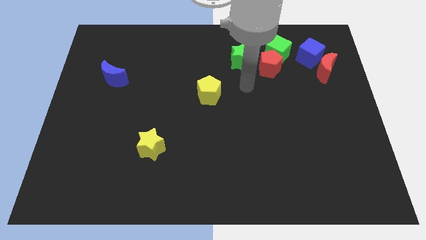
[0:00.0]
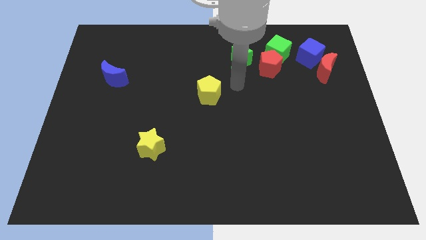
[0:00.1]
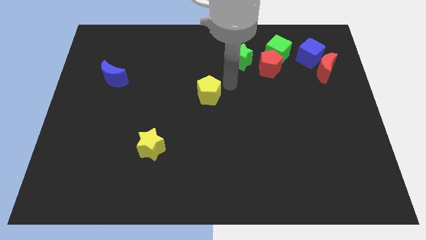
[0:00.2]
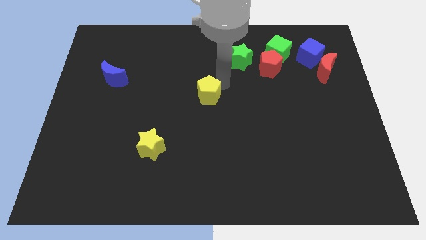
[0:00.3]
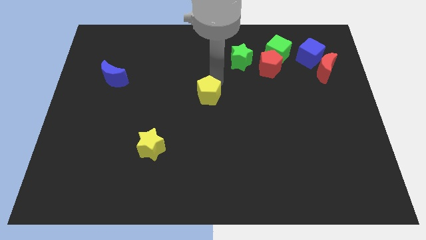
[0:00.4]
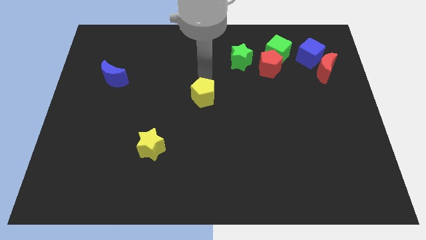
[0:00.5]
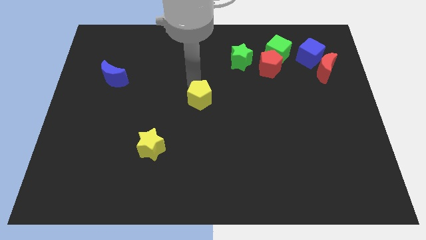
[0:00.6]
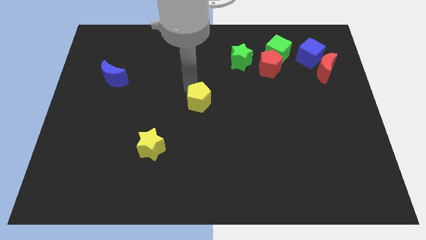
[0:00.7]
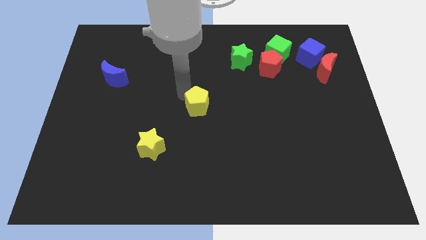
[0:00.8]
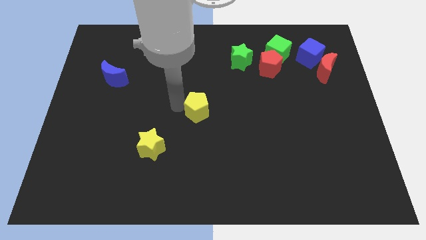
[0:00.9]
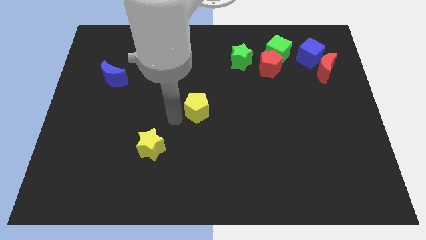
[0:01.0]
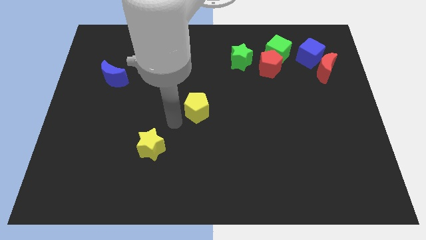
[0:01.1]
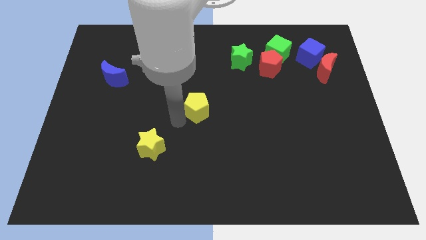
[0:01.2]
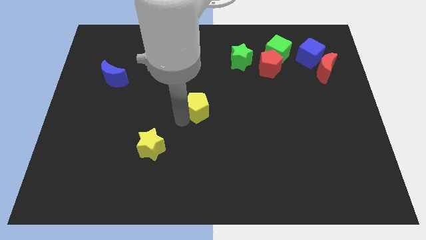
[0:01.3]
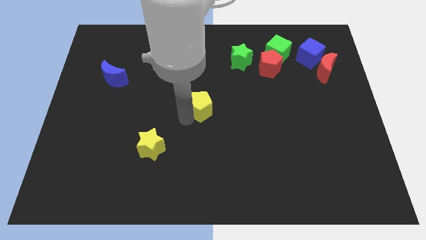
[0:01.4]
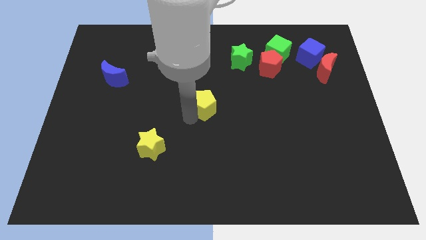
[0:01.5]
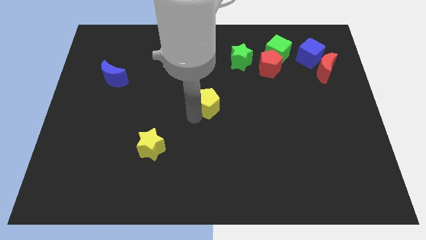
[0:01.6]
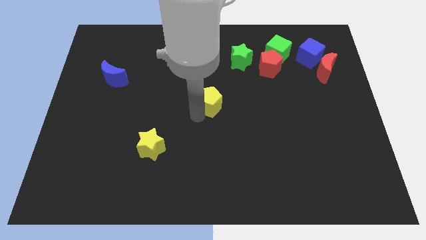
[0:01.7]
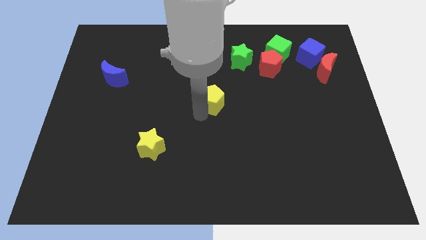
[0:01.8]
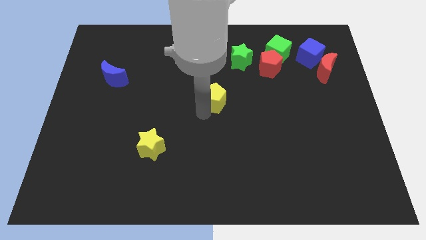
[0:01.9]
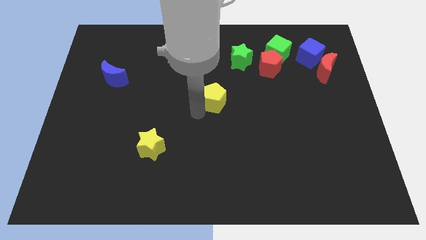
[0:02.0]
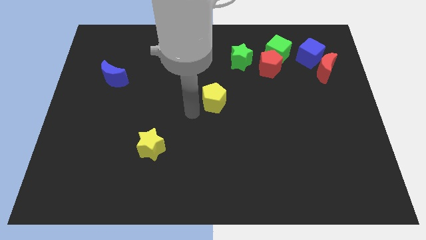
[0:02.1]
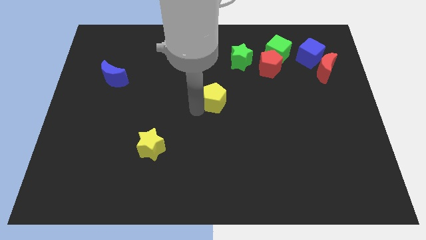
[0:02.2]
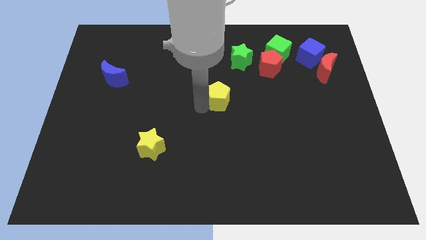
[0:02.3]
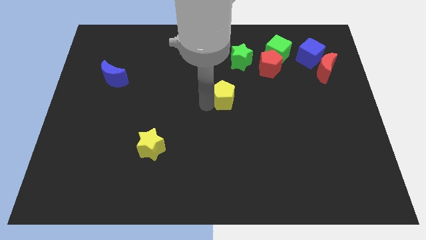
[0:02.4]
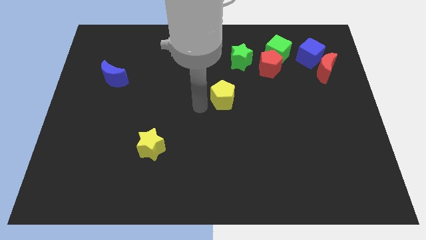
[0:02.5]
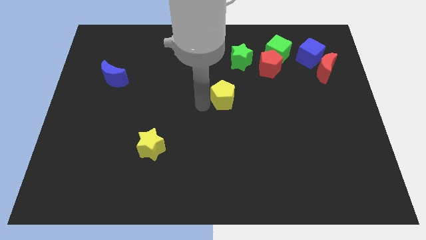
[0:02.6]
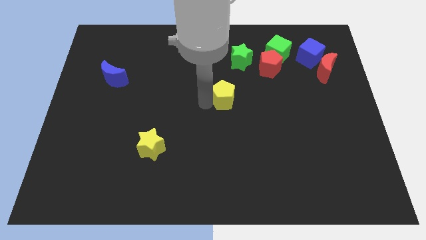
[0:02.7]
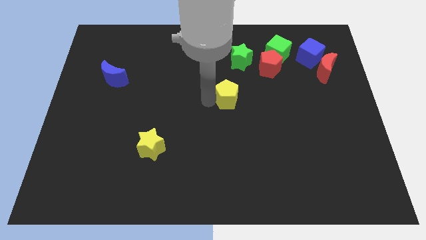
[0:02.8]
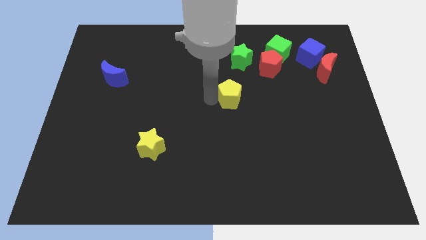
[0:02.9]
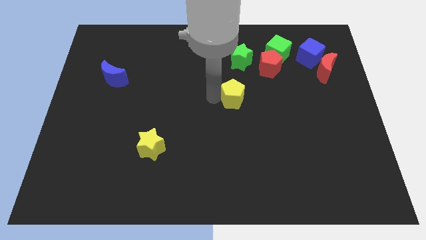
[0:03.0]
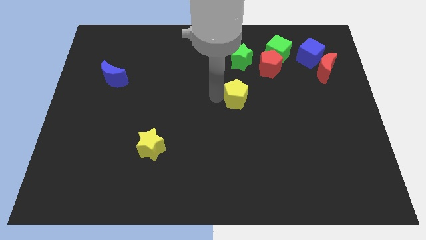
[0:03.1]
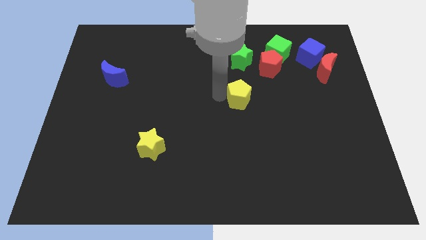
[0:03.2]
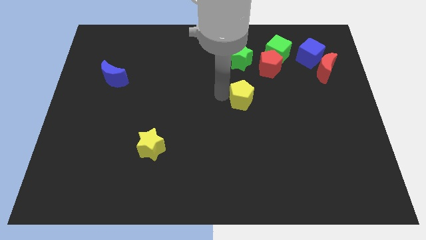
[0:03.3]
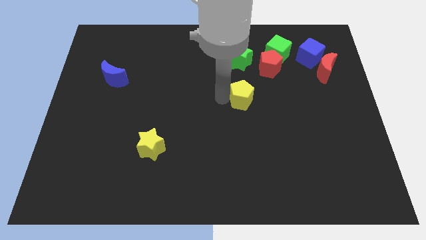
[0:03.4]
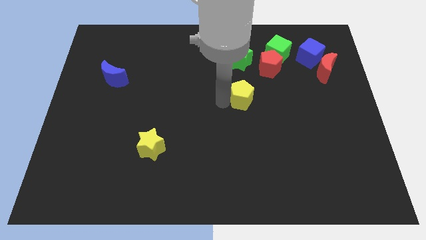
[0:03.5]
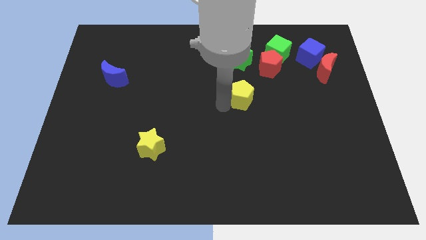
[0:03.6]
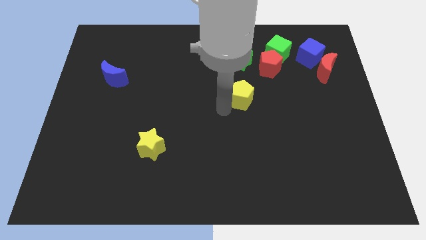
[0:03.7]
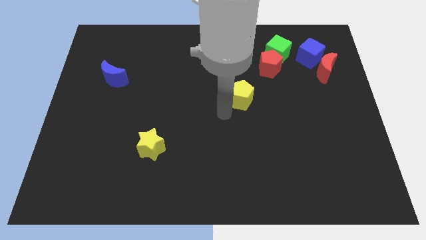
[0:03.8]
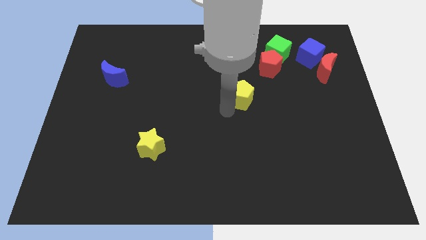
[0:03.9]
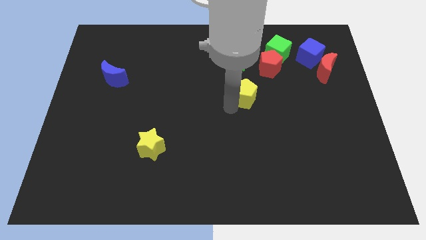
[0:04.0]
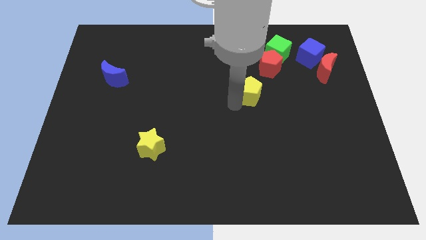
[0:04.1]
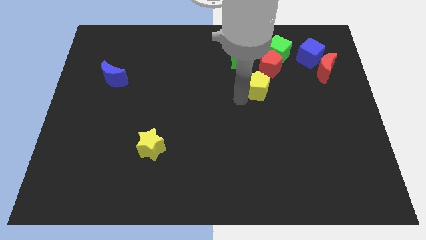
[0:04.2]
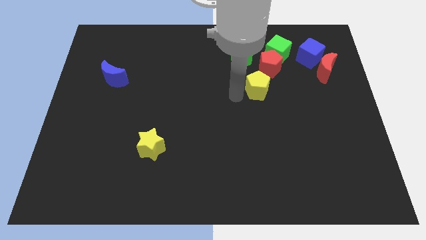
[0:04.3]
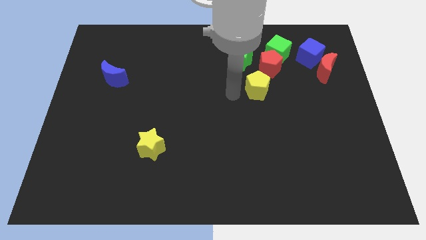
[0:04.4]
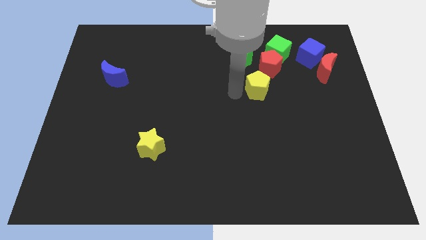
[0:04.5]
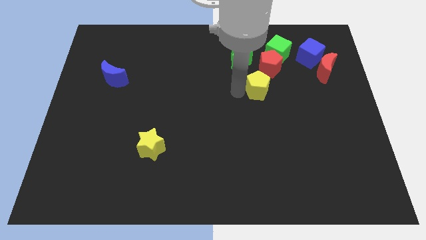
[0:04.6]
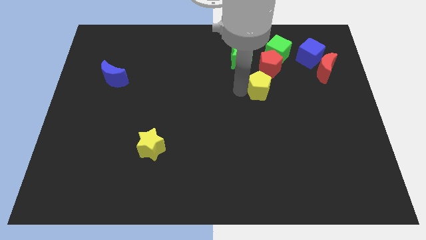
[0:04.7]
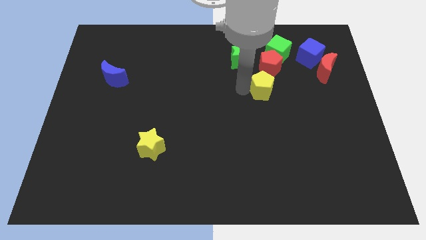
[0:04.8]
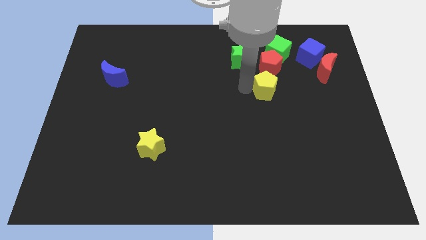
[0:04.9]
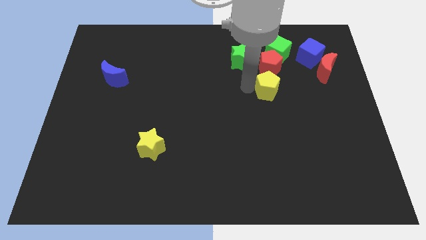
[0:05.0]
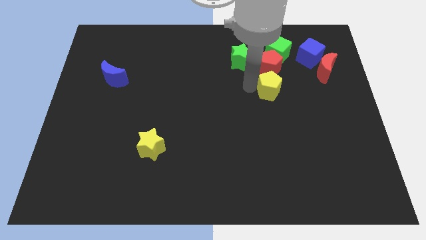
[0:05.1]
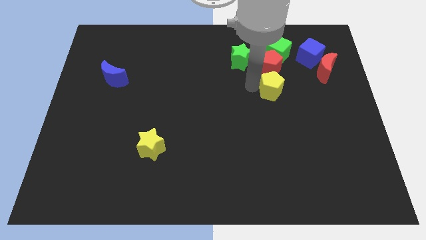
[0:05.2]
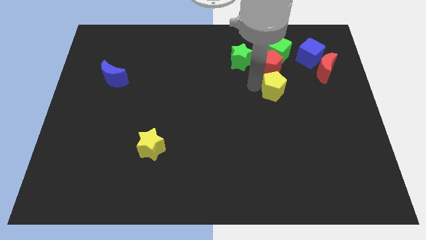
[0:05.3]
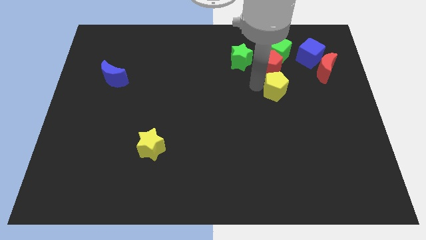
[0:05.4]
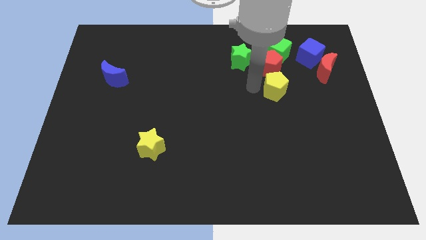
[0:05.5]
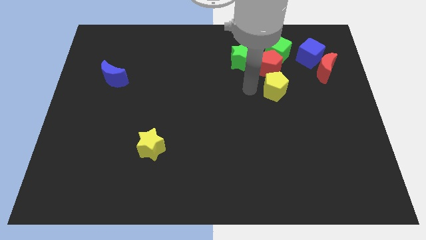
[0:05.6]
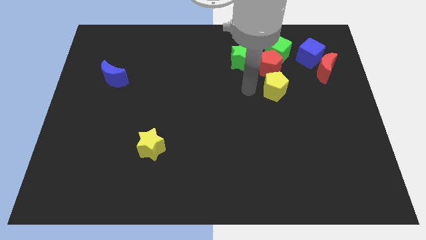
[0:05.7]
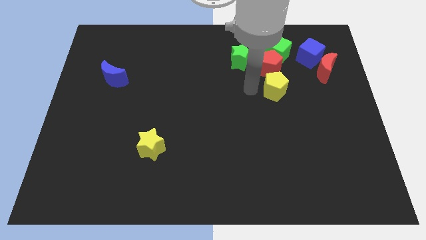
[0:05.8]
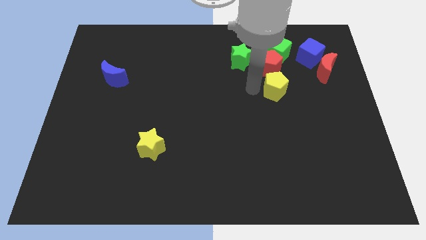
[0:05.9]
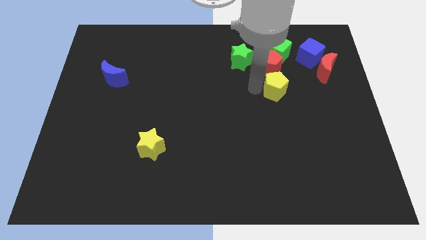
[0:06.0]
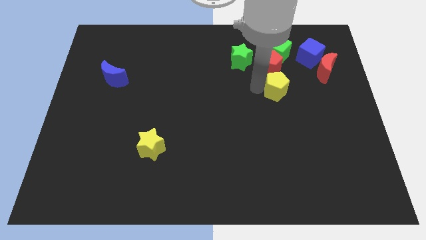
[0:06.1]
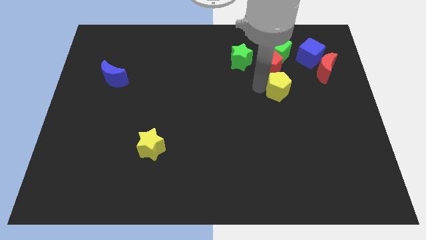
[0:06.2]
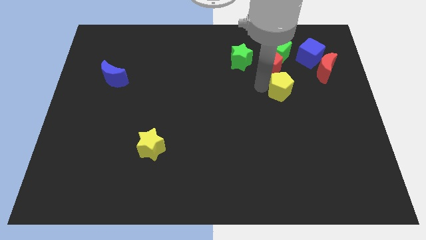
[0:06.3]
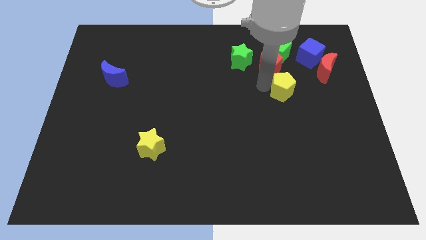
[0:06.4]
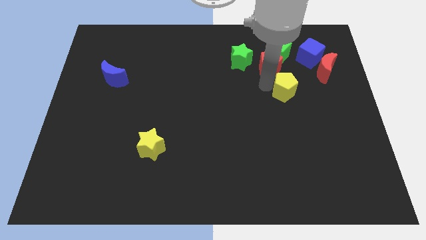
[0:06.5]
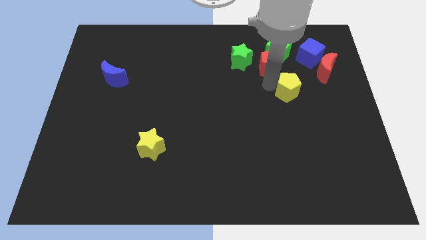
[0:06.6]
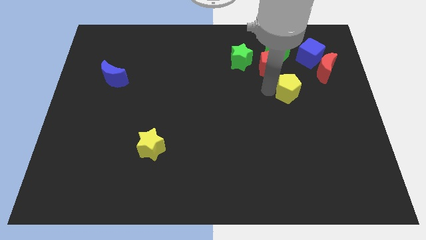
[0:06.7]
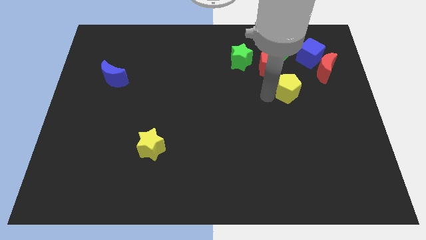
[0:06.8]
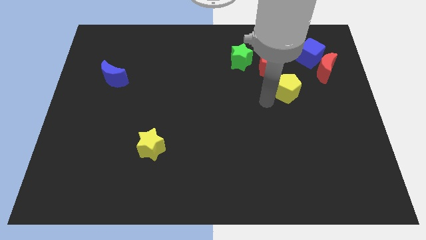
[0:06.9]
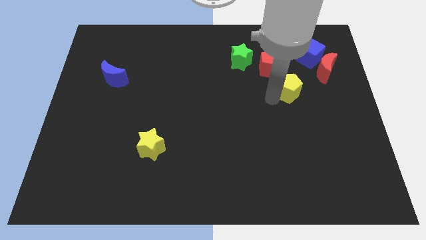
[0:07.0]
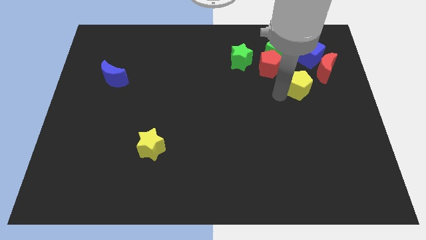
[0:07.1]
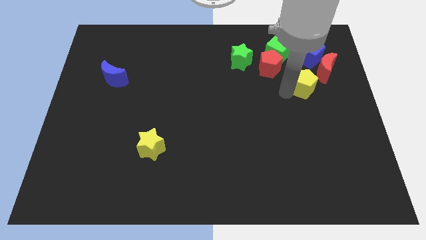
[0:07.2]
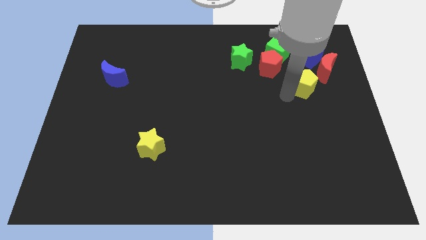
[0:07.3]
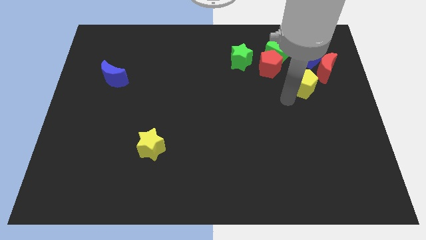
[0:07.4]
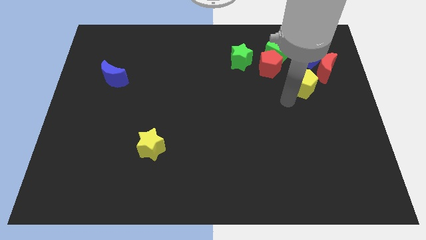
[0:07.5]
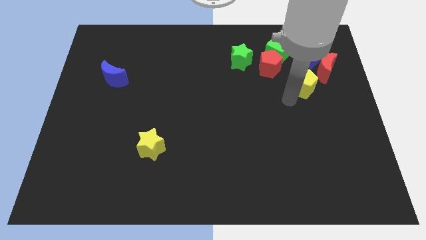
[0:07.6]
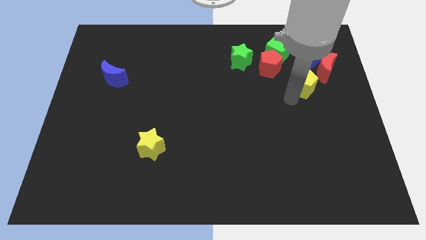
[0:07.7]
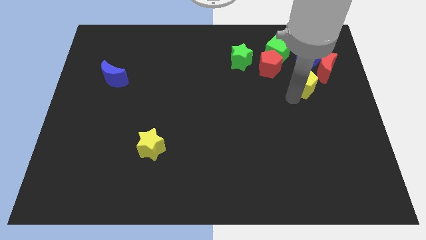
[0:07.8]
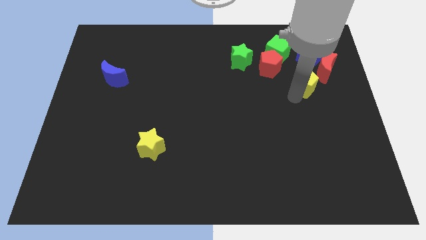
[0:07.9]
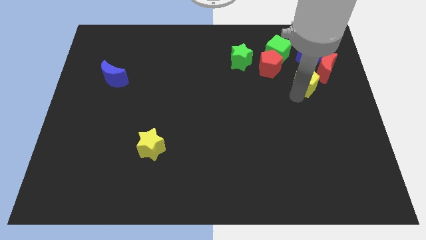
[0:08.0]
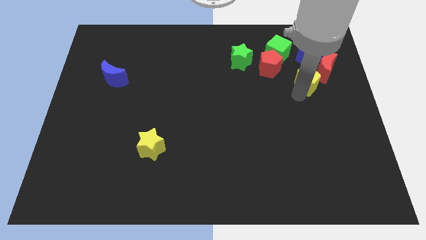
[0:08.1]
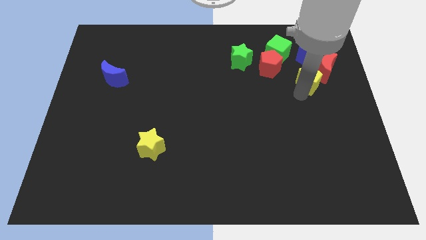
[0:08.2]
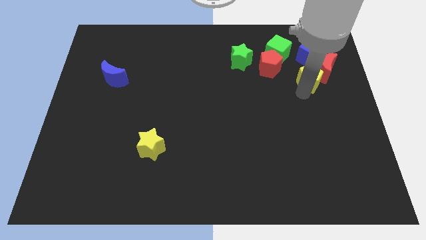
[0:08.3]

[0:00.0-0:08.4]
slide the yellow pentagon towards the red moon
